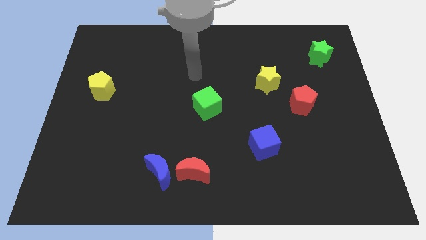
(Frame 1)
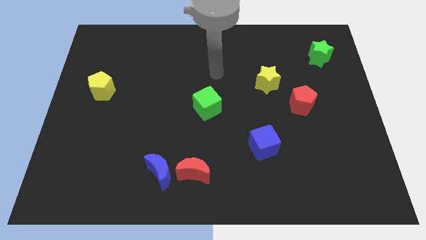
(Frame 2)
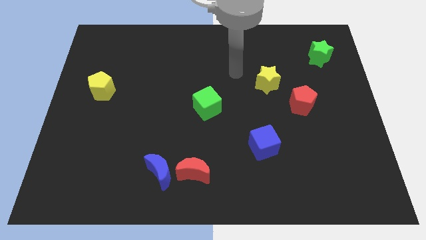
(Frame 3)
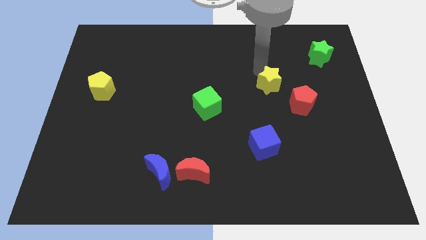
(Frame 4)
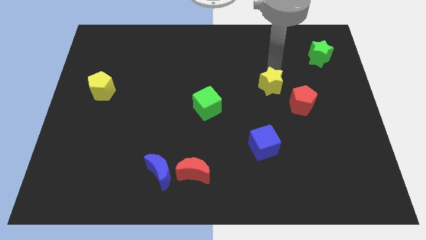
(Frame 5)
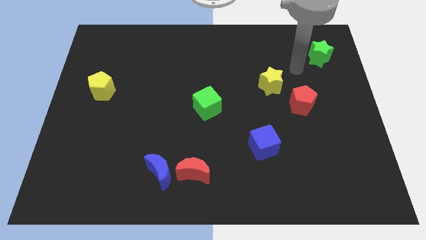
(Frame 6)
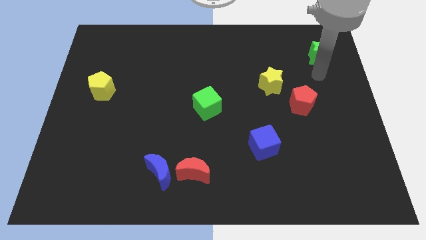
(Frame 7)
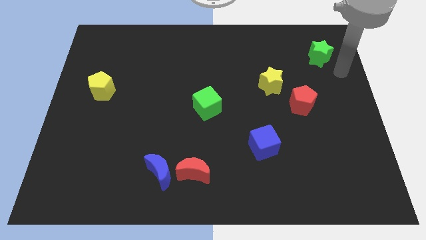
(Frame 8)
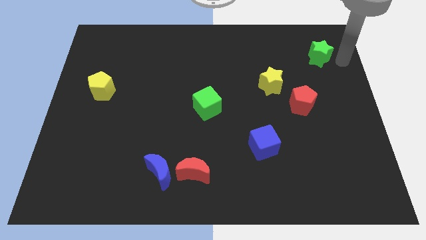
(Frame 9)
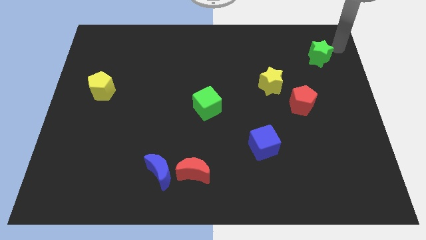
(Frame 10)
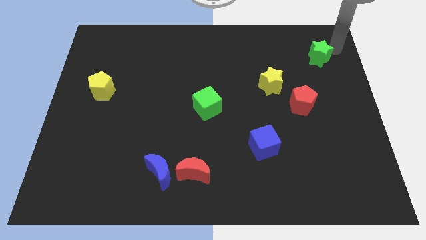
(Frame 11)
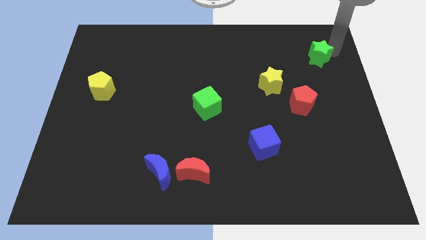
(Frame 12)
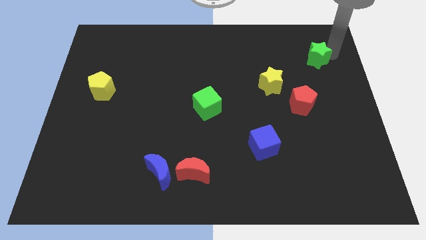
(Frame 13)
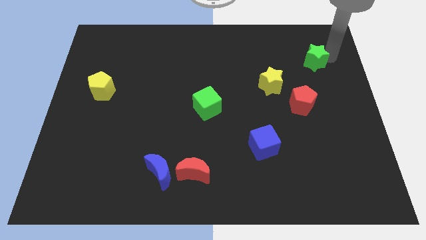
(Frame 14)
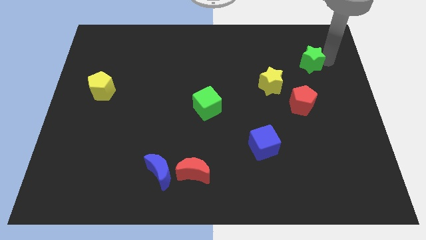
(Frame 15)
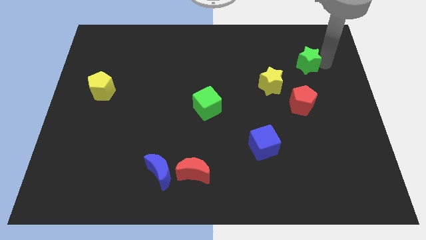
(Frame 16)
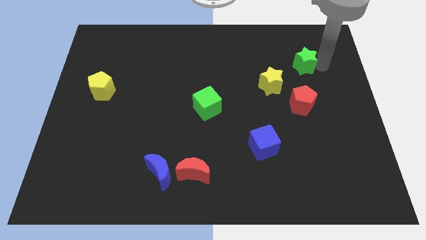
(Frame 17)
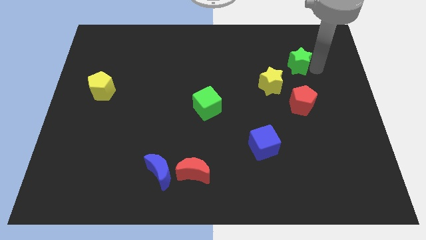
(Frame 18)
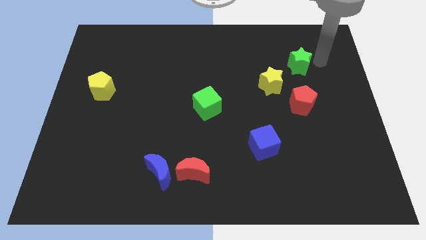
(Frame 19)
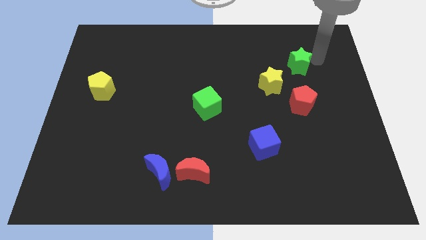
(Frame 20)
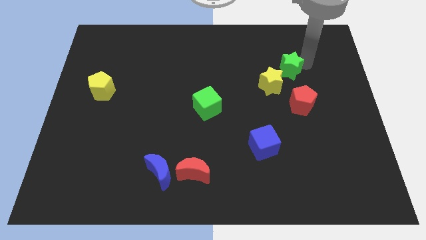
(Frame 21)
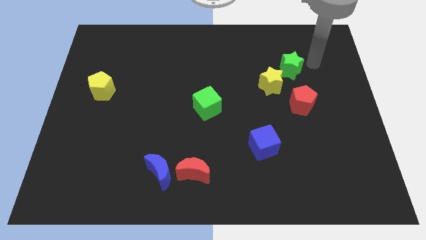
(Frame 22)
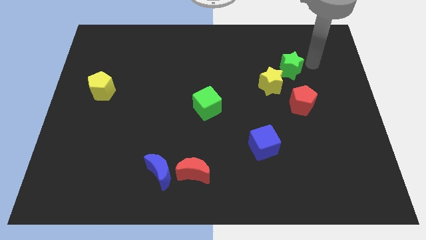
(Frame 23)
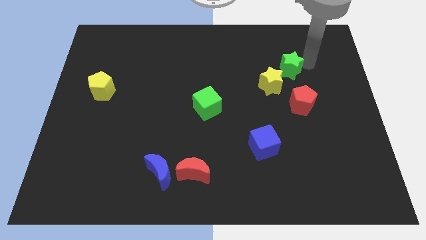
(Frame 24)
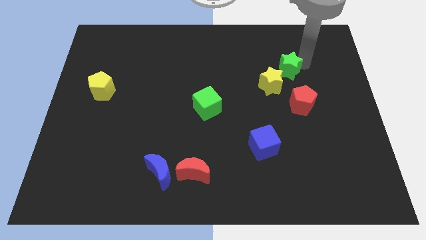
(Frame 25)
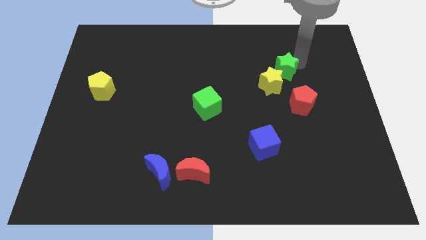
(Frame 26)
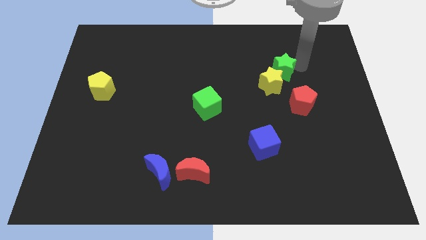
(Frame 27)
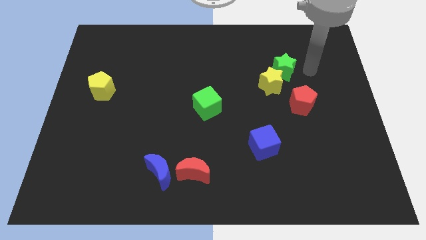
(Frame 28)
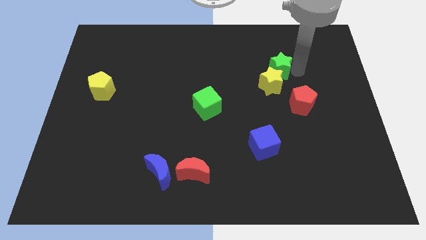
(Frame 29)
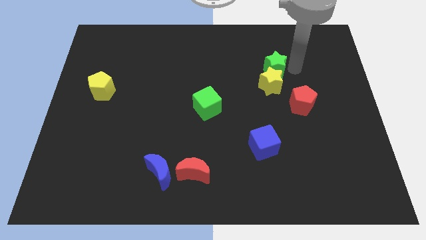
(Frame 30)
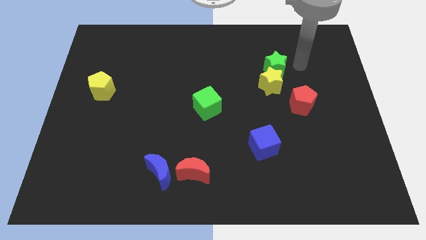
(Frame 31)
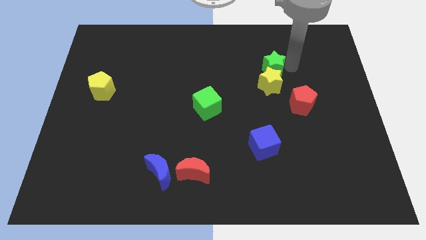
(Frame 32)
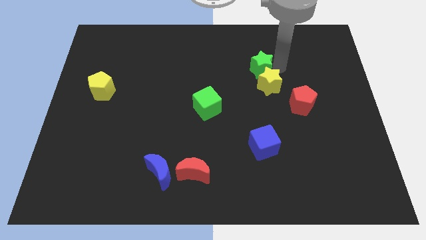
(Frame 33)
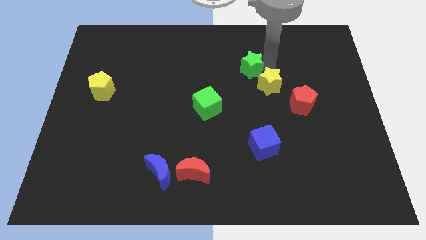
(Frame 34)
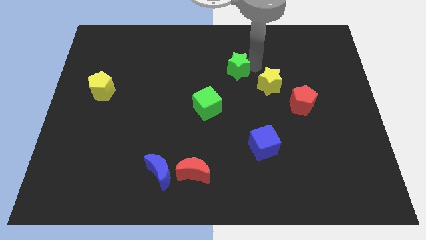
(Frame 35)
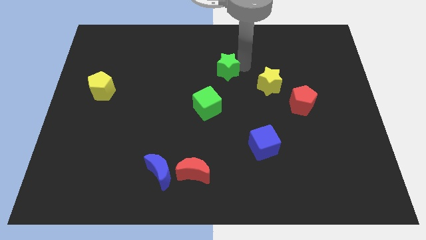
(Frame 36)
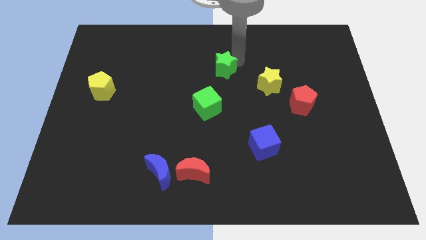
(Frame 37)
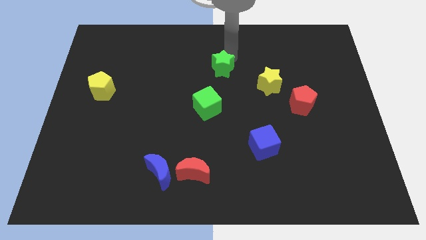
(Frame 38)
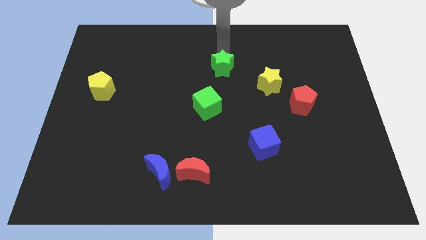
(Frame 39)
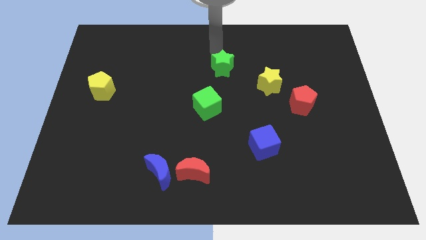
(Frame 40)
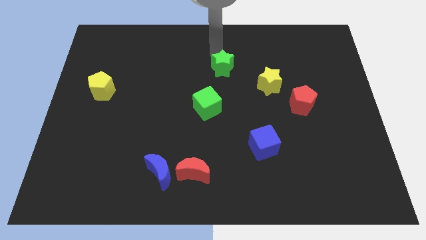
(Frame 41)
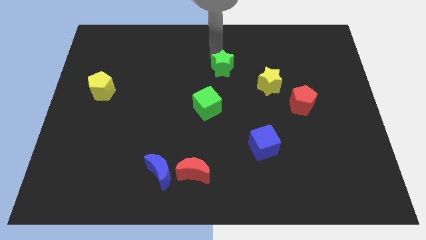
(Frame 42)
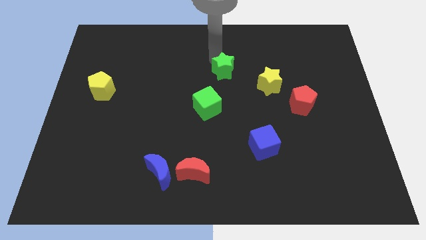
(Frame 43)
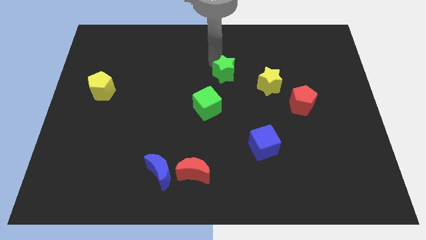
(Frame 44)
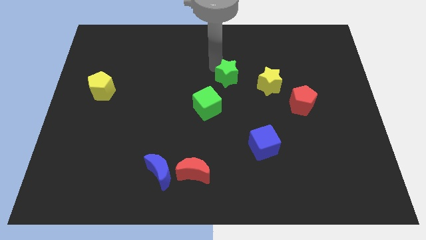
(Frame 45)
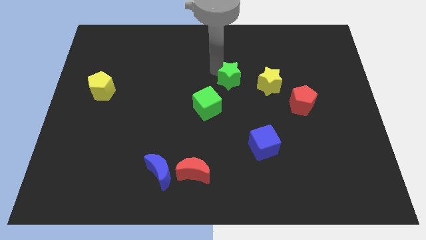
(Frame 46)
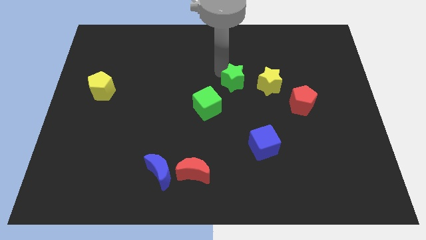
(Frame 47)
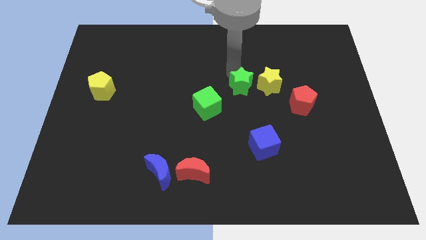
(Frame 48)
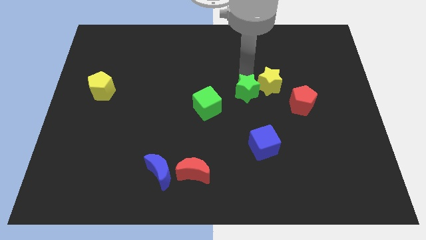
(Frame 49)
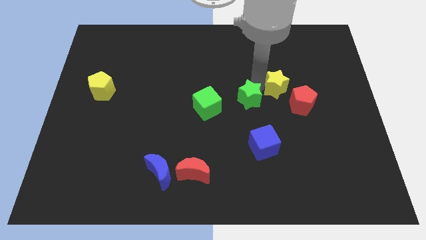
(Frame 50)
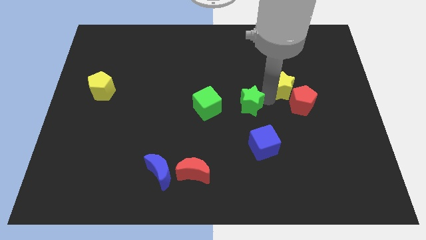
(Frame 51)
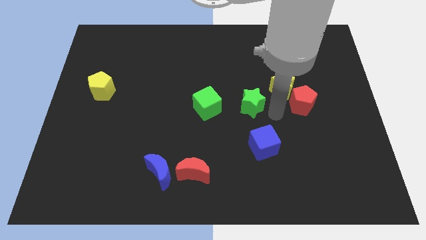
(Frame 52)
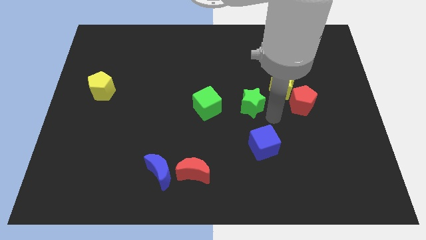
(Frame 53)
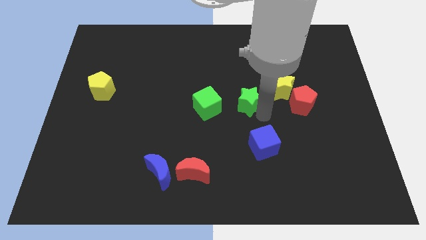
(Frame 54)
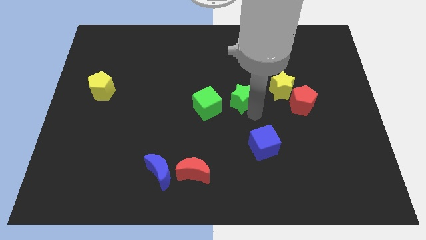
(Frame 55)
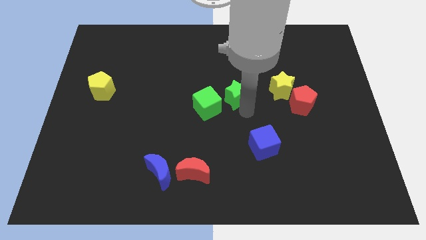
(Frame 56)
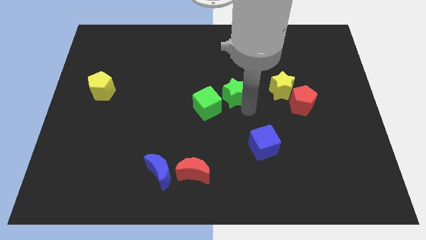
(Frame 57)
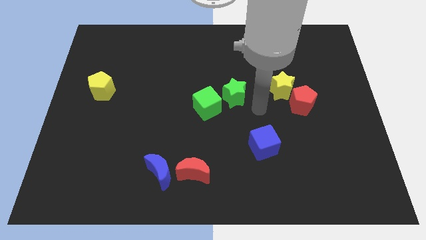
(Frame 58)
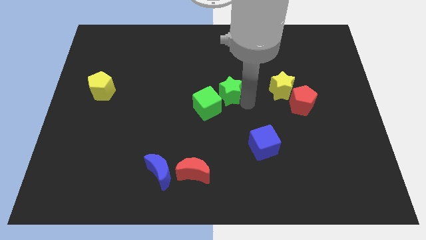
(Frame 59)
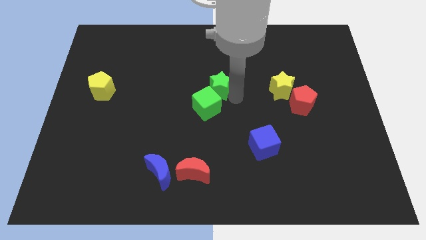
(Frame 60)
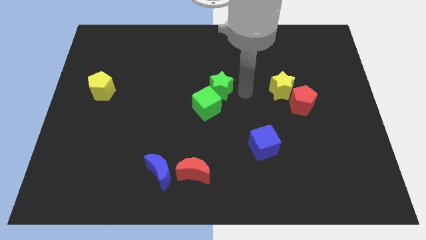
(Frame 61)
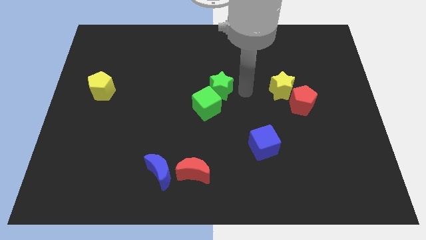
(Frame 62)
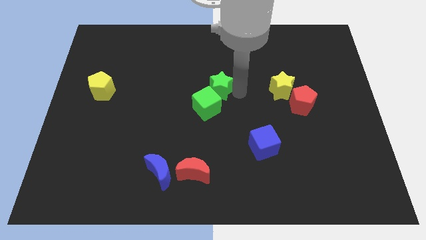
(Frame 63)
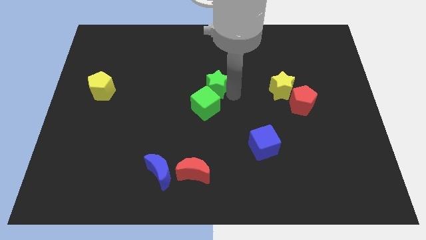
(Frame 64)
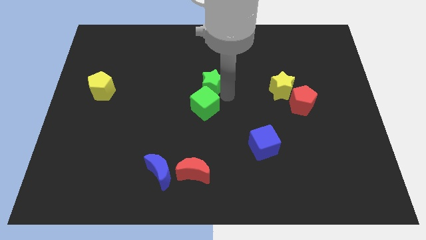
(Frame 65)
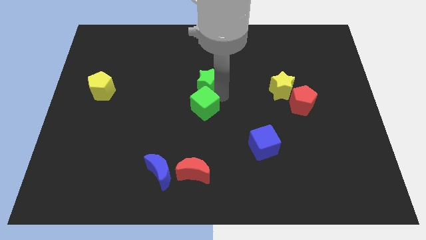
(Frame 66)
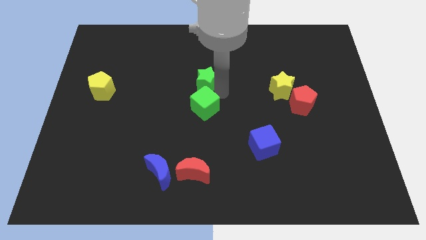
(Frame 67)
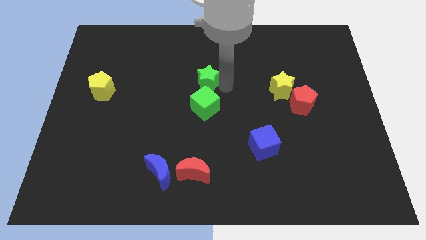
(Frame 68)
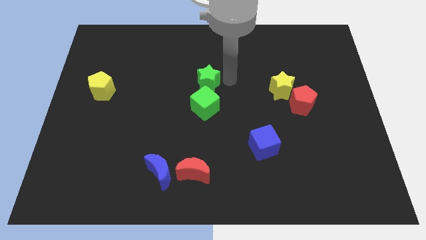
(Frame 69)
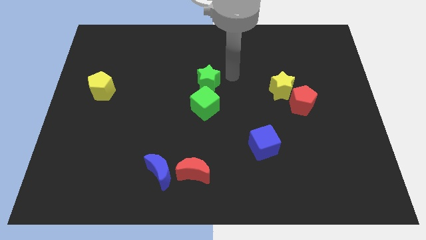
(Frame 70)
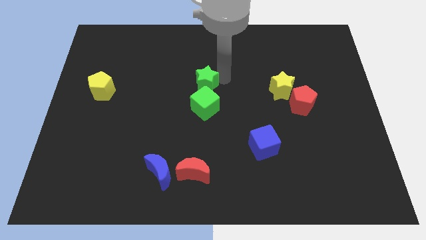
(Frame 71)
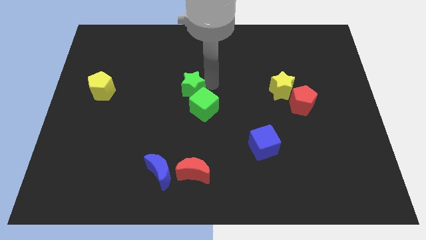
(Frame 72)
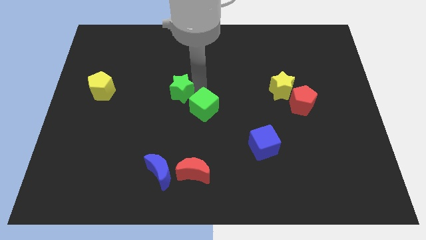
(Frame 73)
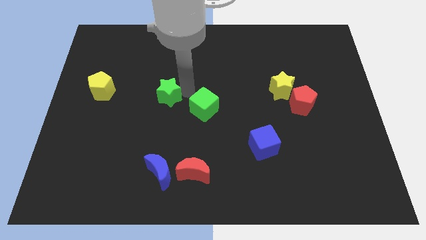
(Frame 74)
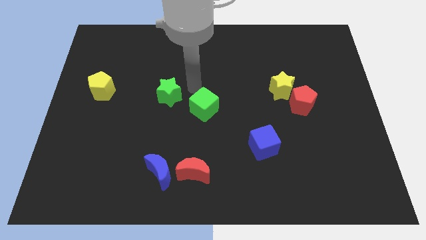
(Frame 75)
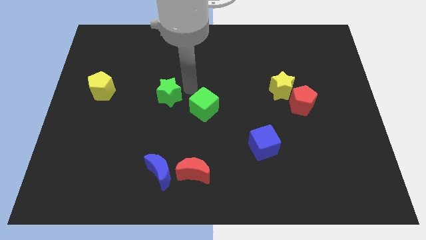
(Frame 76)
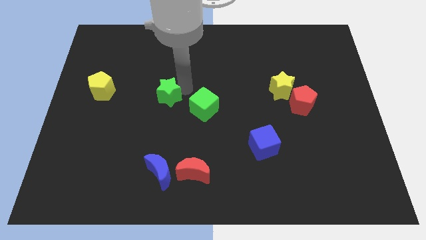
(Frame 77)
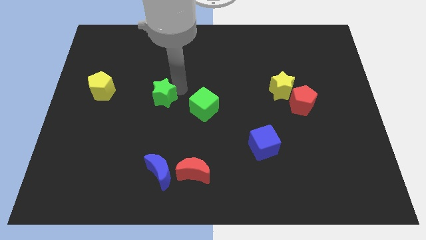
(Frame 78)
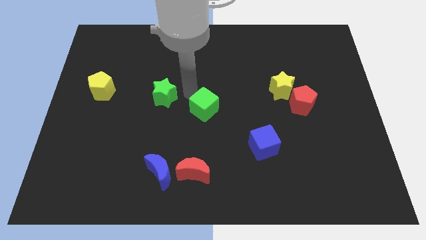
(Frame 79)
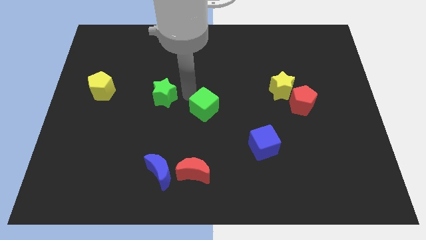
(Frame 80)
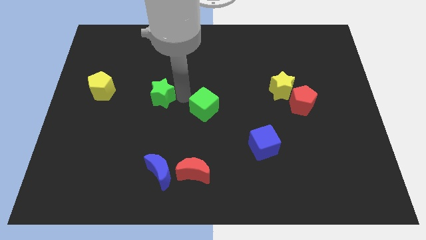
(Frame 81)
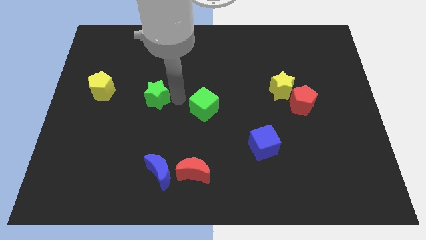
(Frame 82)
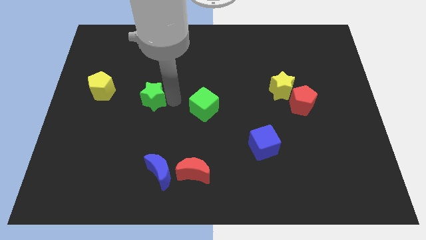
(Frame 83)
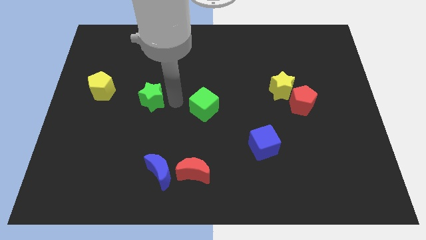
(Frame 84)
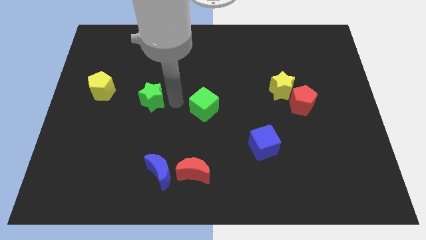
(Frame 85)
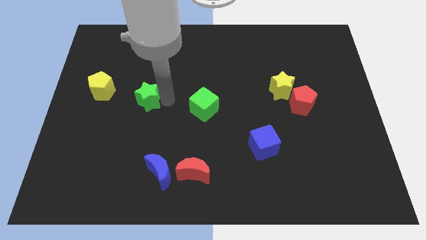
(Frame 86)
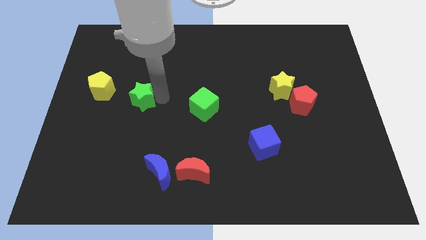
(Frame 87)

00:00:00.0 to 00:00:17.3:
push the green star to the bottom right of the yellow pentagon
